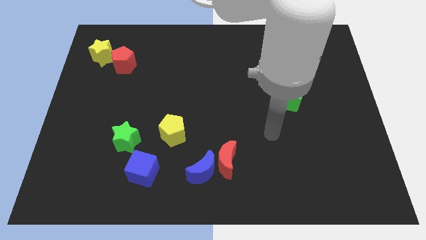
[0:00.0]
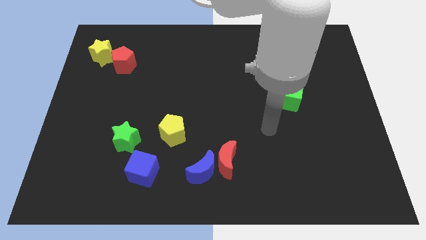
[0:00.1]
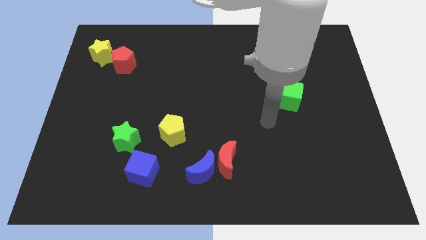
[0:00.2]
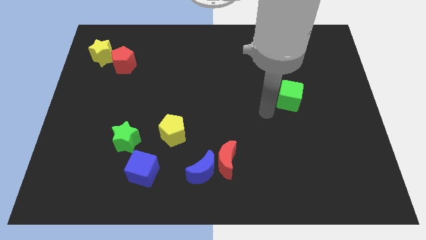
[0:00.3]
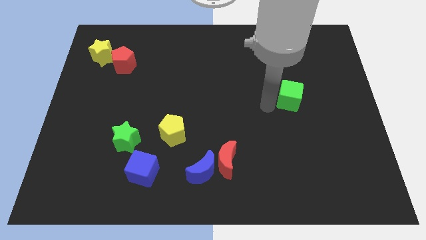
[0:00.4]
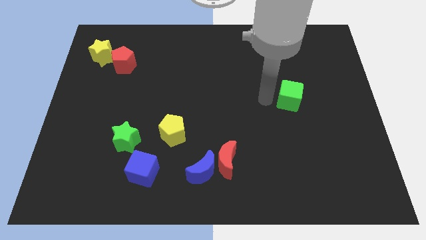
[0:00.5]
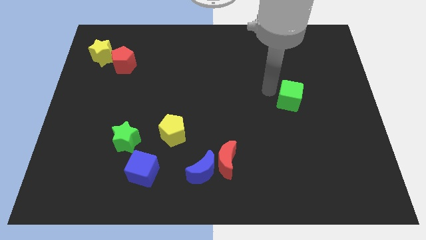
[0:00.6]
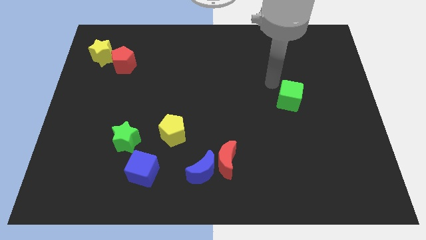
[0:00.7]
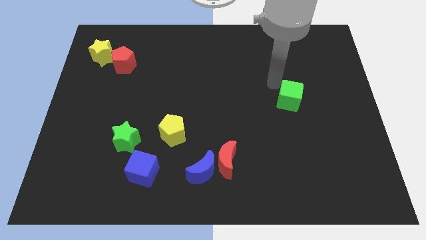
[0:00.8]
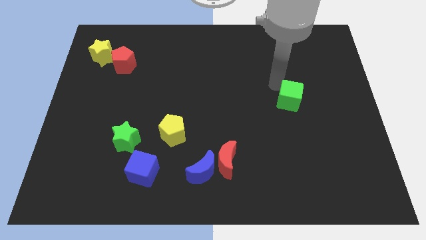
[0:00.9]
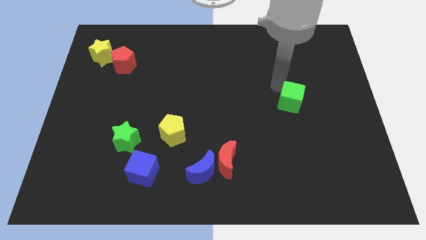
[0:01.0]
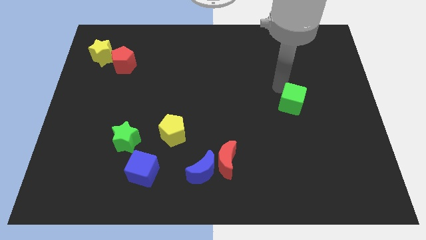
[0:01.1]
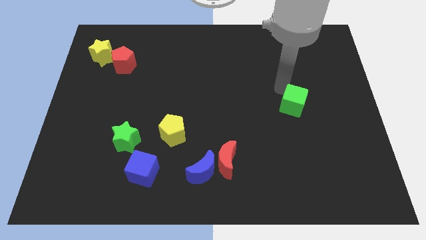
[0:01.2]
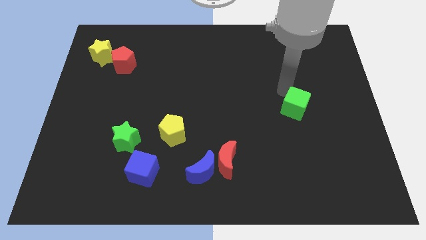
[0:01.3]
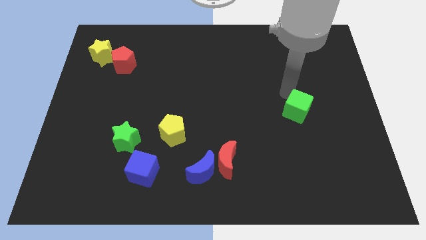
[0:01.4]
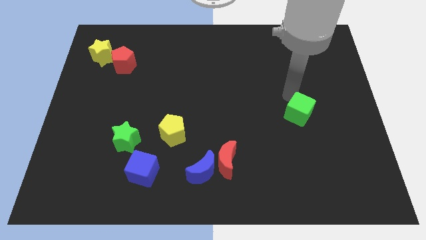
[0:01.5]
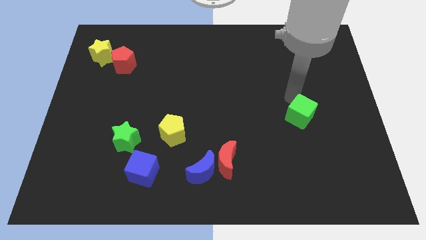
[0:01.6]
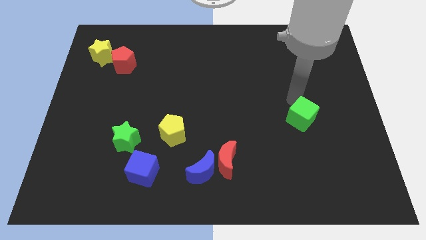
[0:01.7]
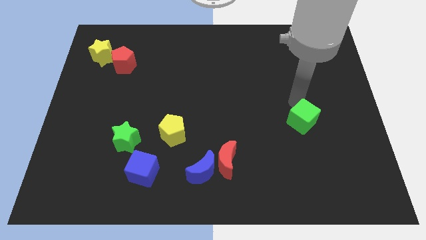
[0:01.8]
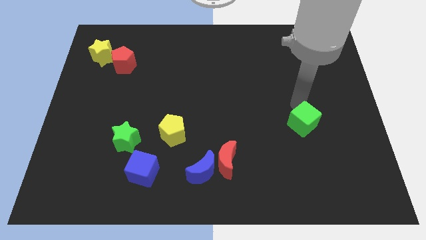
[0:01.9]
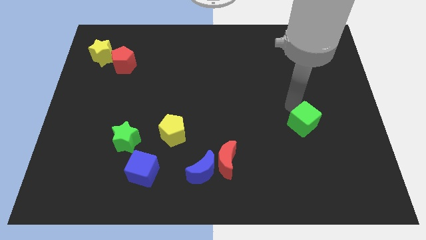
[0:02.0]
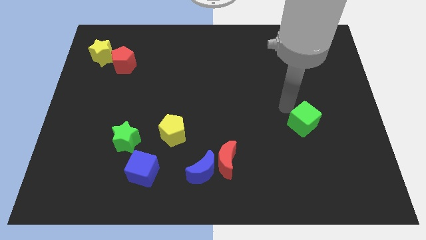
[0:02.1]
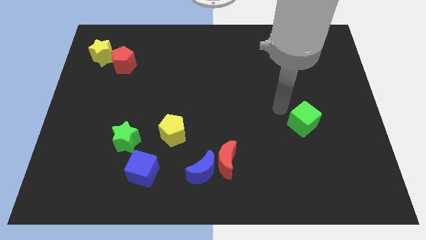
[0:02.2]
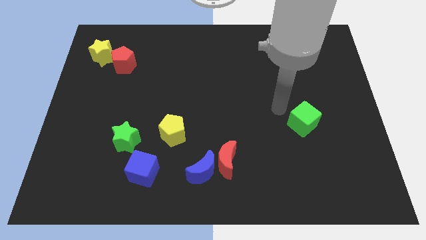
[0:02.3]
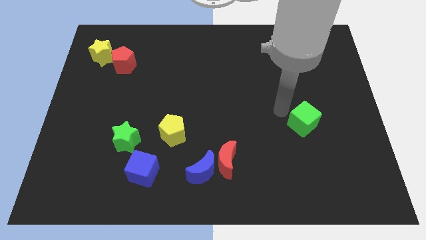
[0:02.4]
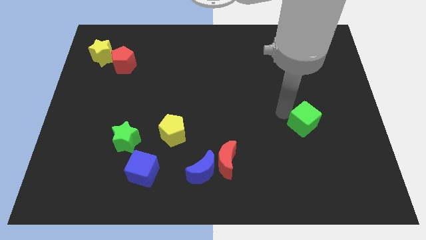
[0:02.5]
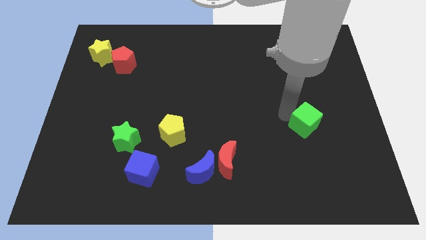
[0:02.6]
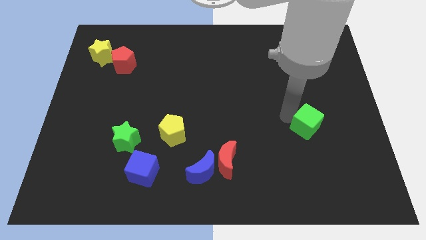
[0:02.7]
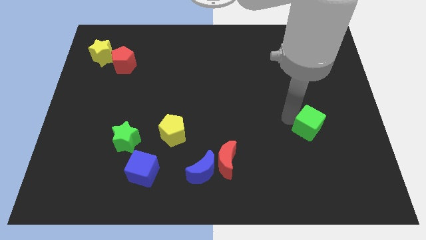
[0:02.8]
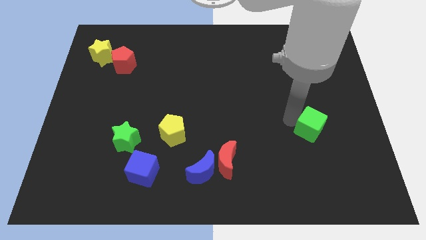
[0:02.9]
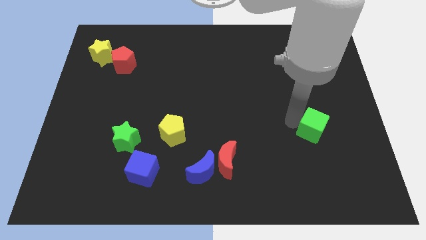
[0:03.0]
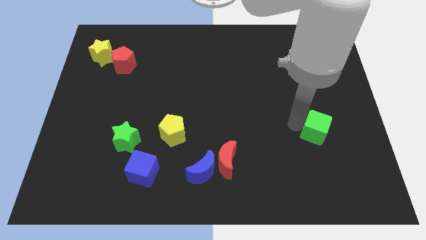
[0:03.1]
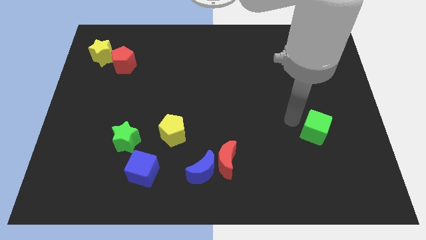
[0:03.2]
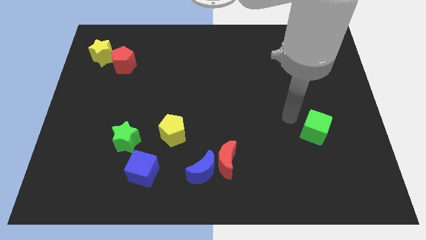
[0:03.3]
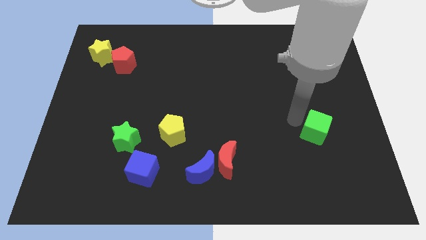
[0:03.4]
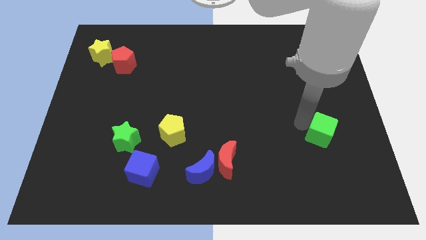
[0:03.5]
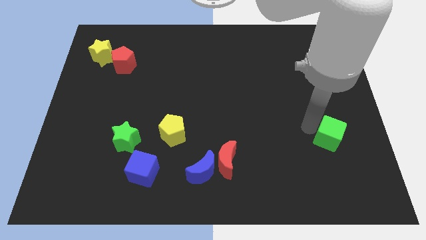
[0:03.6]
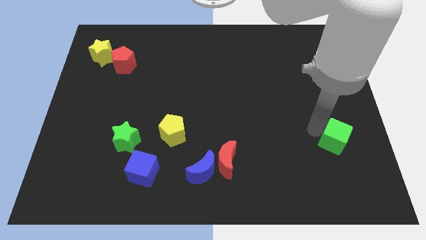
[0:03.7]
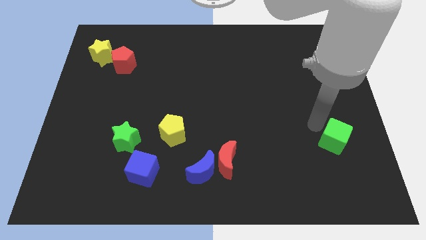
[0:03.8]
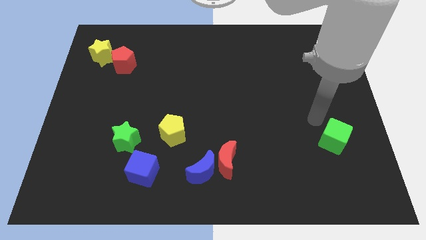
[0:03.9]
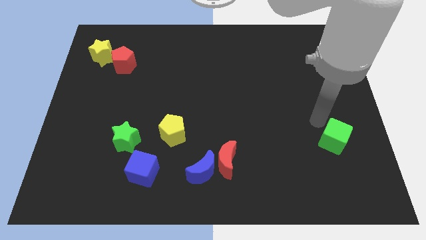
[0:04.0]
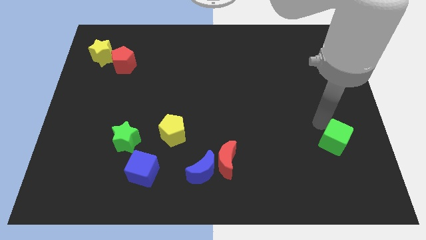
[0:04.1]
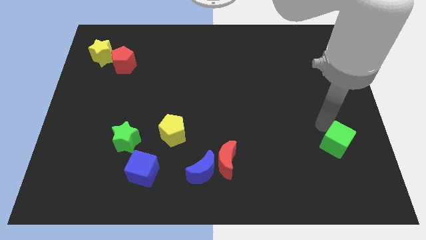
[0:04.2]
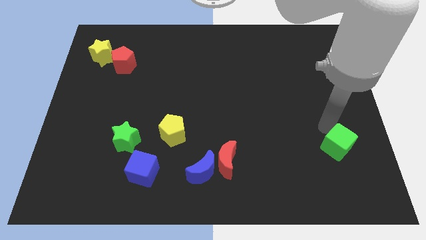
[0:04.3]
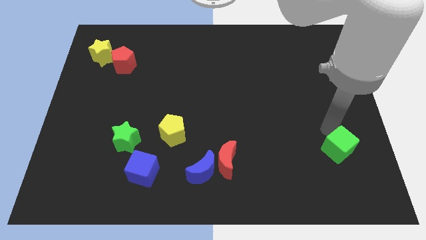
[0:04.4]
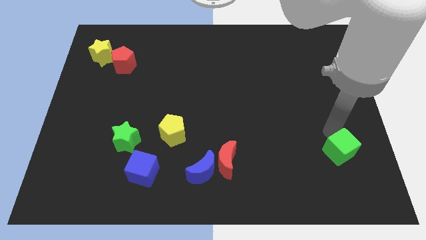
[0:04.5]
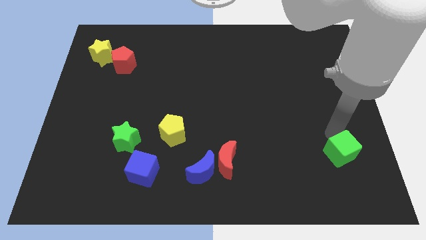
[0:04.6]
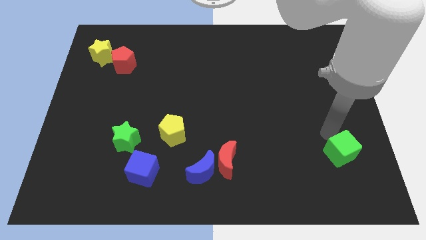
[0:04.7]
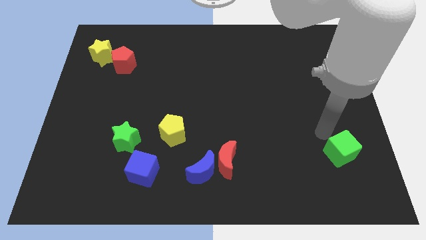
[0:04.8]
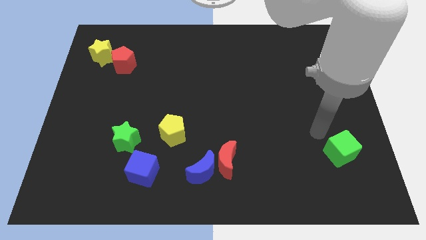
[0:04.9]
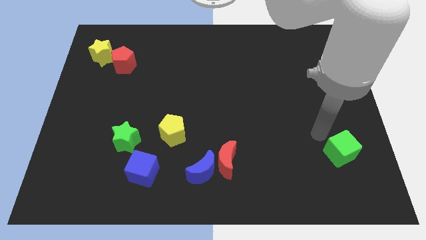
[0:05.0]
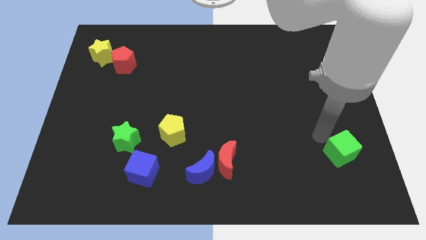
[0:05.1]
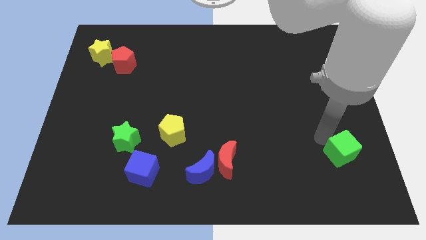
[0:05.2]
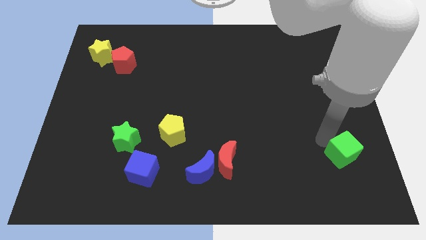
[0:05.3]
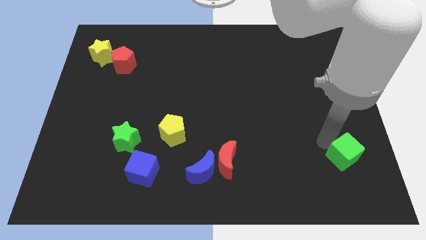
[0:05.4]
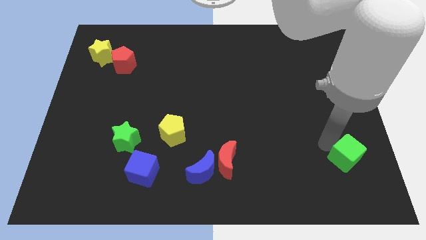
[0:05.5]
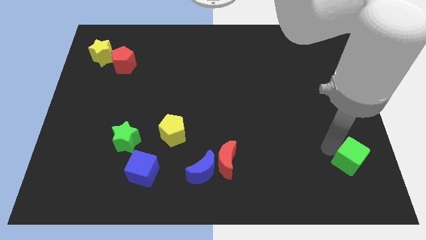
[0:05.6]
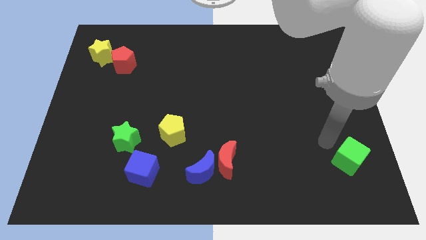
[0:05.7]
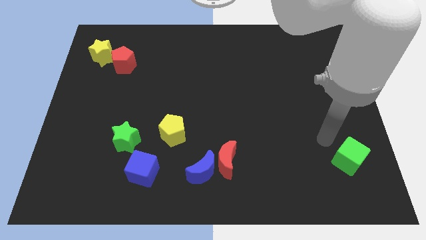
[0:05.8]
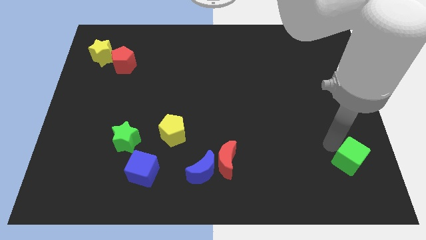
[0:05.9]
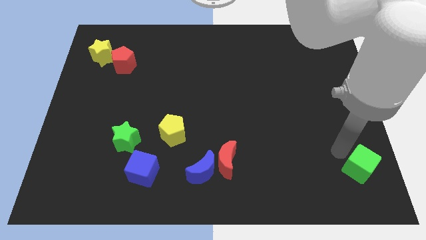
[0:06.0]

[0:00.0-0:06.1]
slide the green cube to the lower right corner
